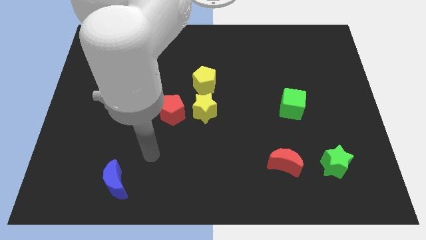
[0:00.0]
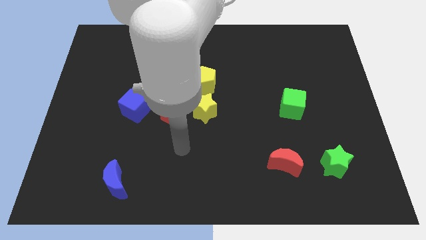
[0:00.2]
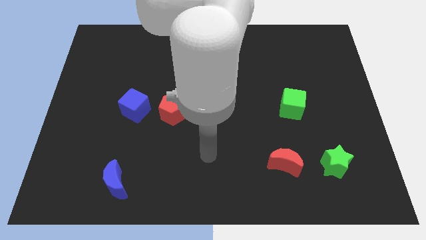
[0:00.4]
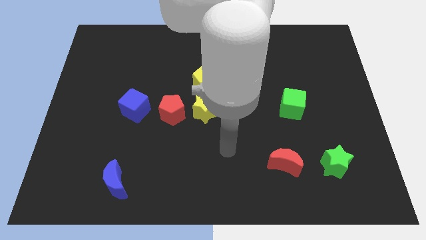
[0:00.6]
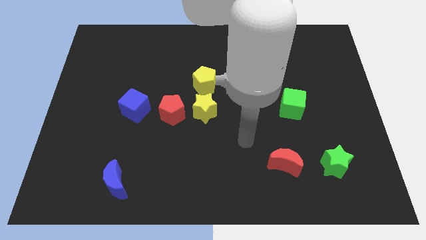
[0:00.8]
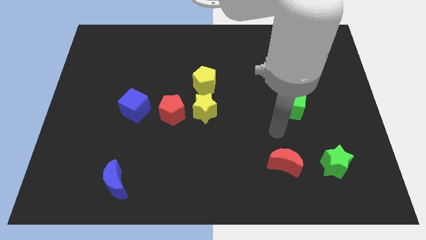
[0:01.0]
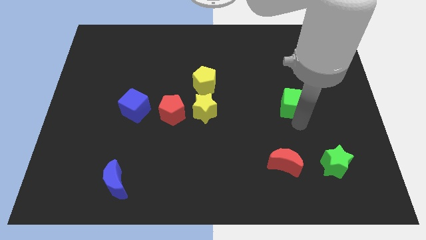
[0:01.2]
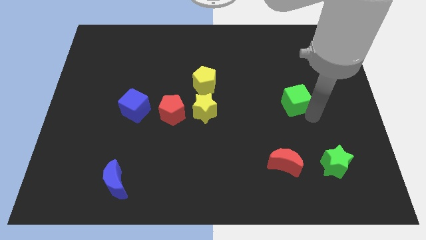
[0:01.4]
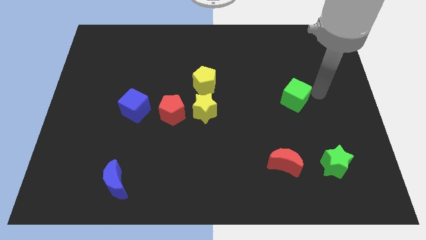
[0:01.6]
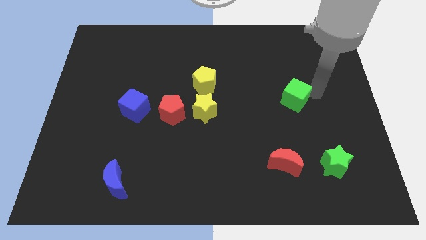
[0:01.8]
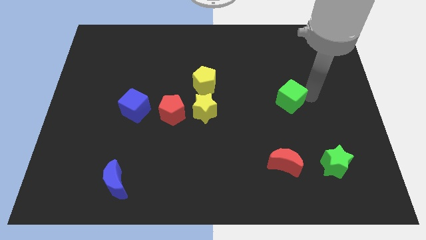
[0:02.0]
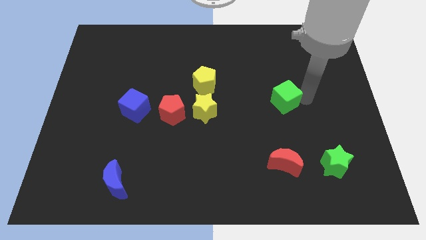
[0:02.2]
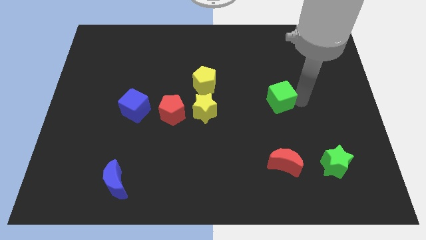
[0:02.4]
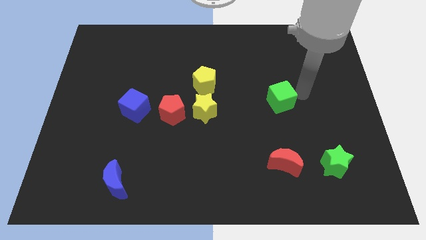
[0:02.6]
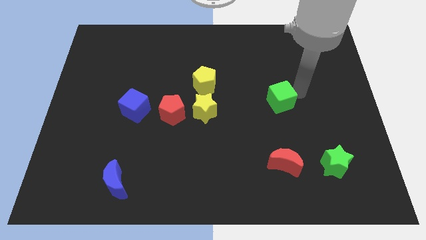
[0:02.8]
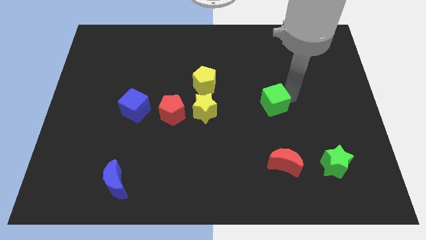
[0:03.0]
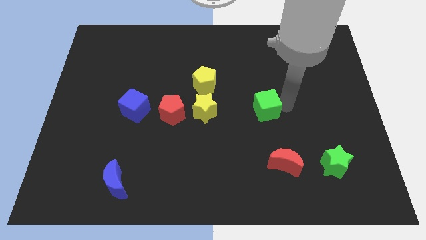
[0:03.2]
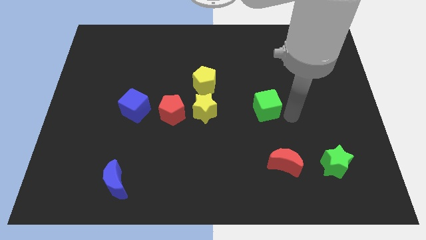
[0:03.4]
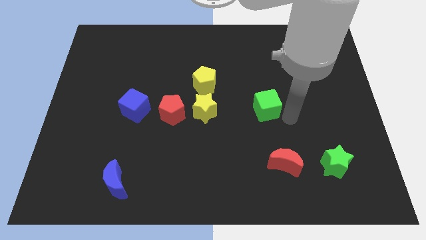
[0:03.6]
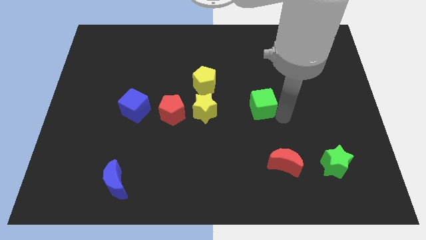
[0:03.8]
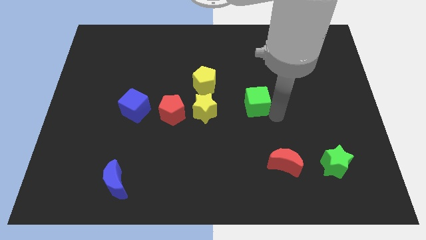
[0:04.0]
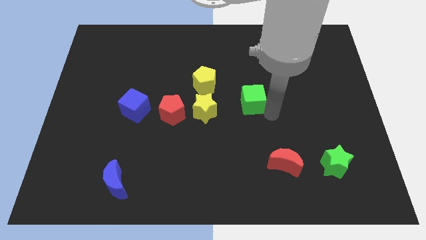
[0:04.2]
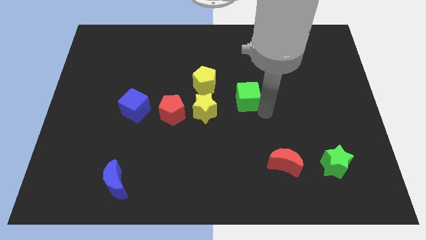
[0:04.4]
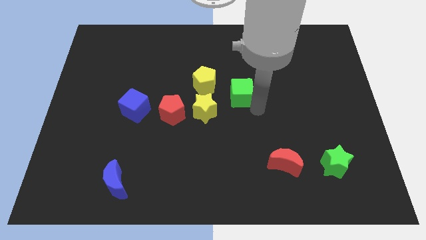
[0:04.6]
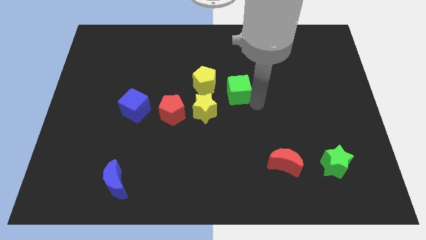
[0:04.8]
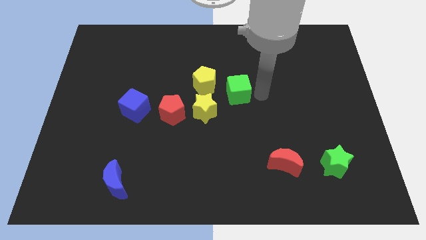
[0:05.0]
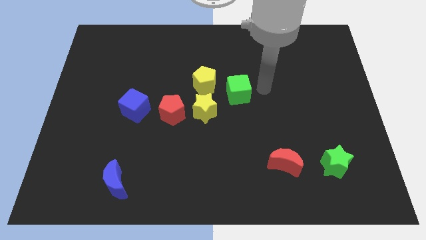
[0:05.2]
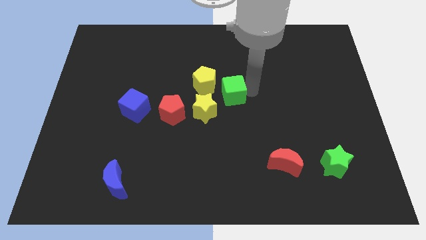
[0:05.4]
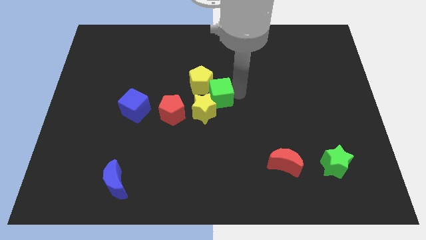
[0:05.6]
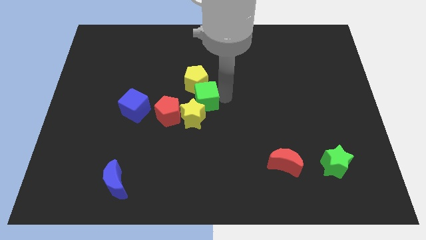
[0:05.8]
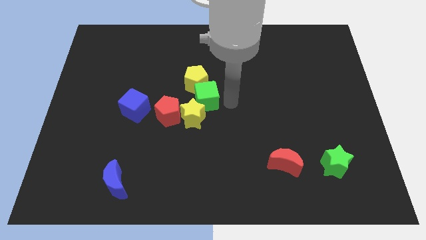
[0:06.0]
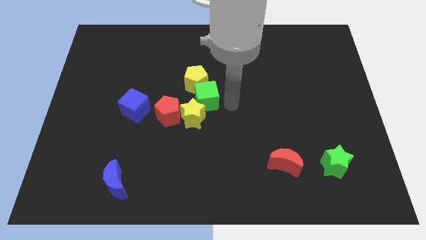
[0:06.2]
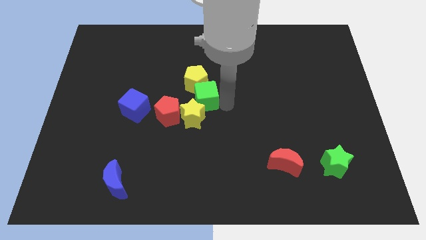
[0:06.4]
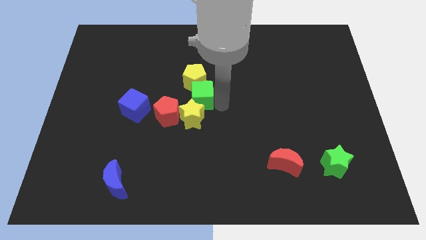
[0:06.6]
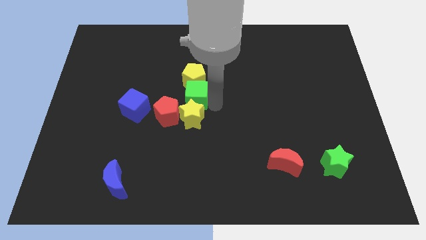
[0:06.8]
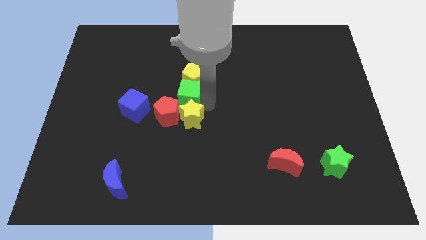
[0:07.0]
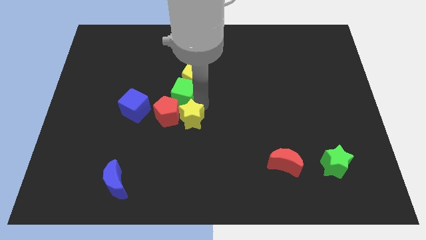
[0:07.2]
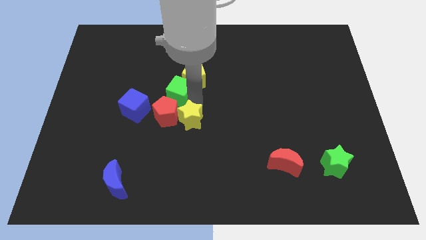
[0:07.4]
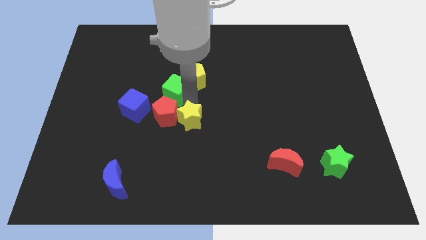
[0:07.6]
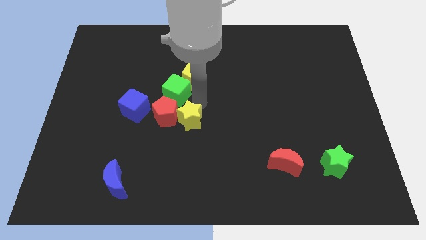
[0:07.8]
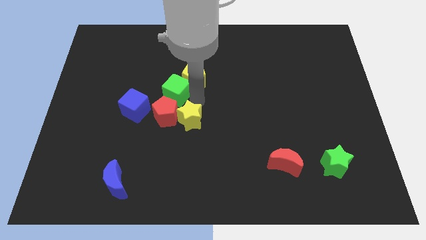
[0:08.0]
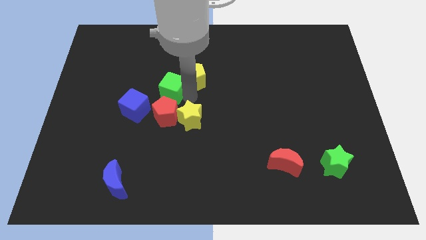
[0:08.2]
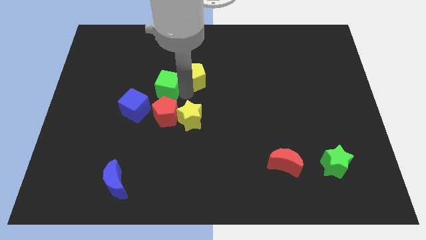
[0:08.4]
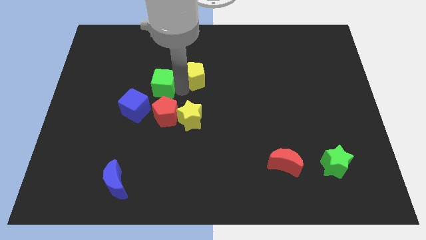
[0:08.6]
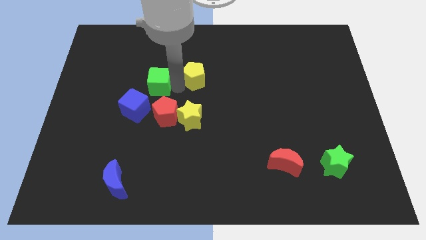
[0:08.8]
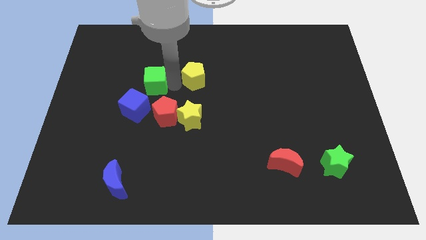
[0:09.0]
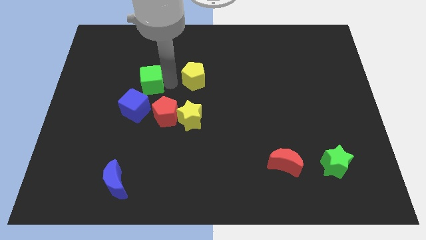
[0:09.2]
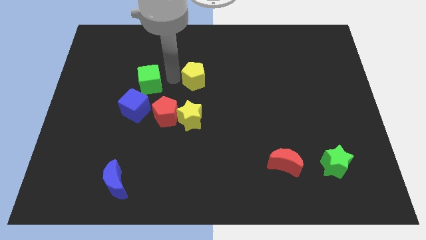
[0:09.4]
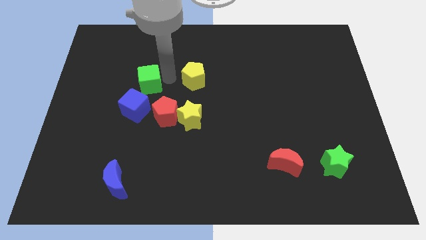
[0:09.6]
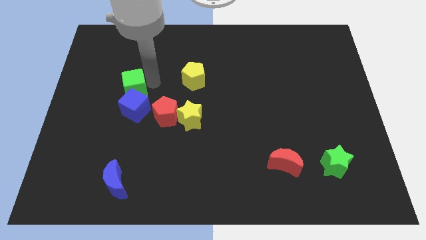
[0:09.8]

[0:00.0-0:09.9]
put the green cube to the top left of the blue cube

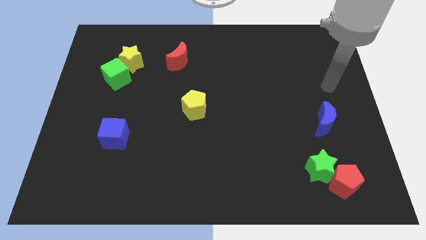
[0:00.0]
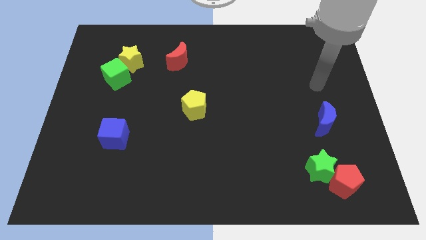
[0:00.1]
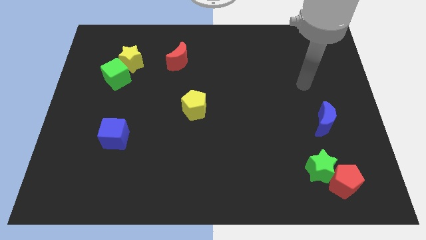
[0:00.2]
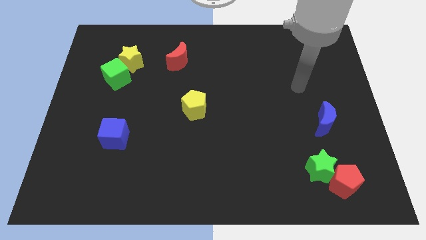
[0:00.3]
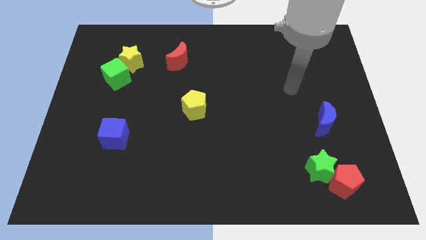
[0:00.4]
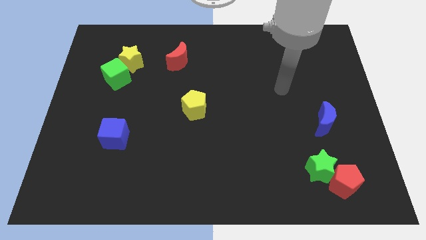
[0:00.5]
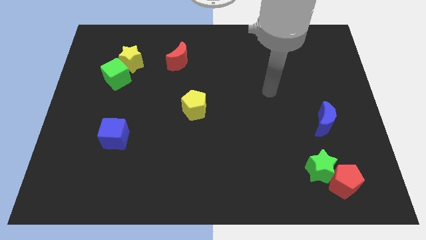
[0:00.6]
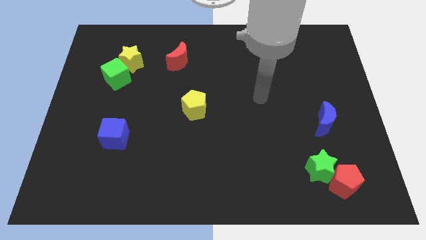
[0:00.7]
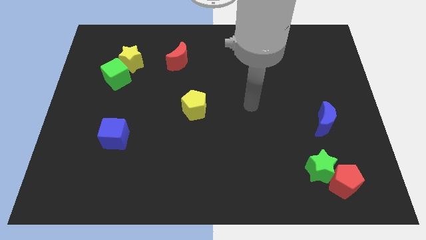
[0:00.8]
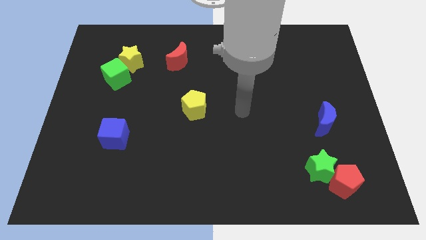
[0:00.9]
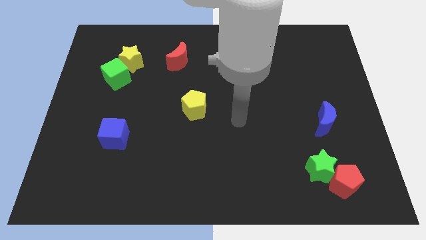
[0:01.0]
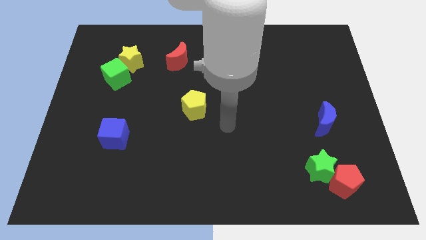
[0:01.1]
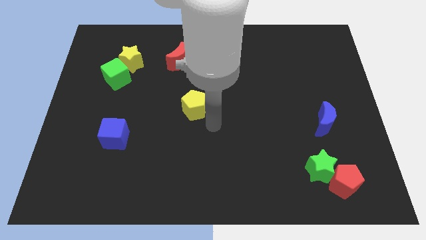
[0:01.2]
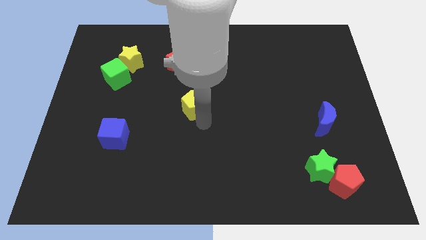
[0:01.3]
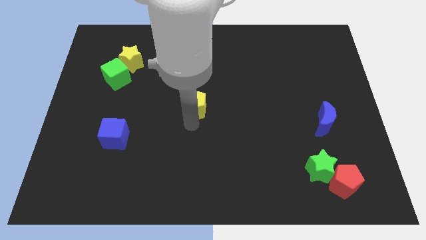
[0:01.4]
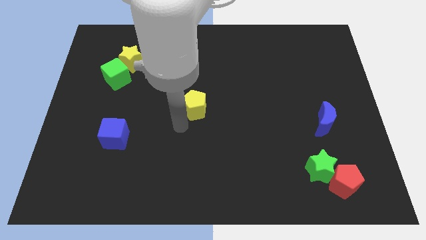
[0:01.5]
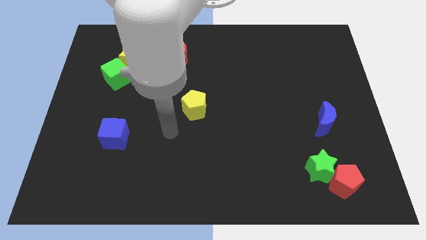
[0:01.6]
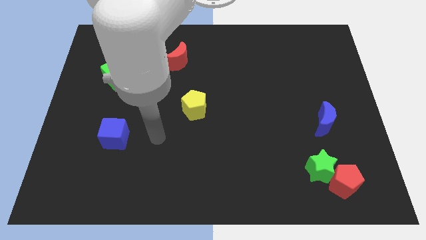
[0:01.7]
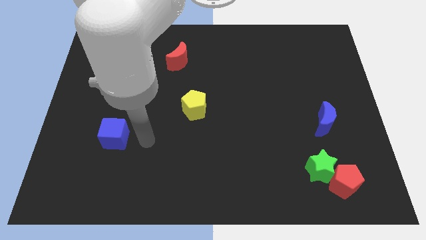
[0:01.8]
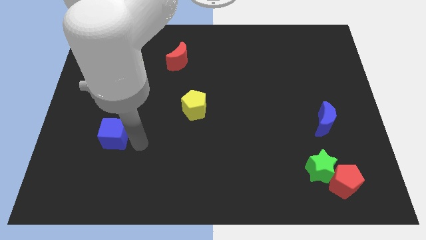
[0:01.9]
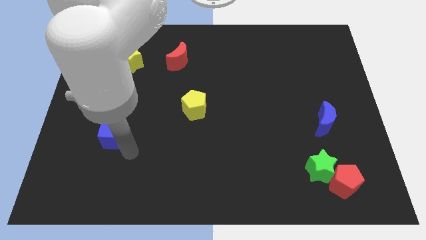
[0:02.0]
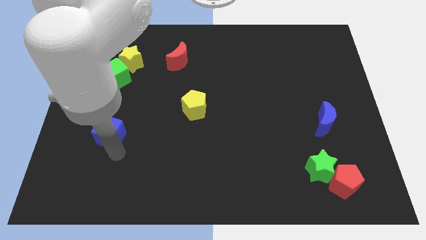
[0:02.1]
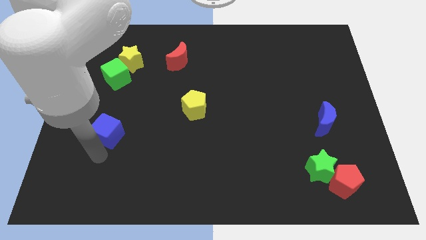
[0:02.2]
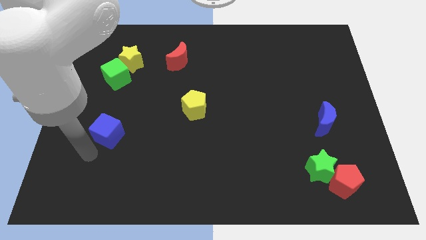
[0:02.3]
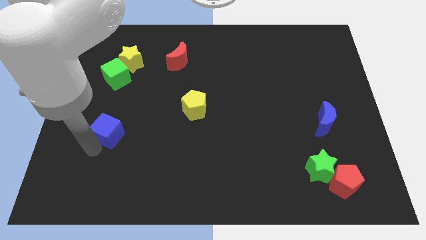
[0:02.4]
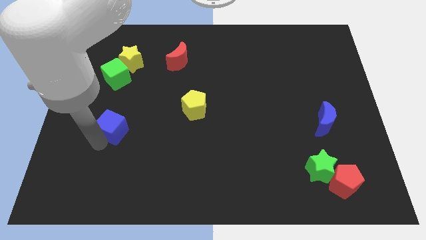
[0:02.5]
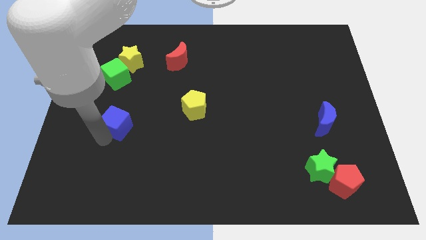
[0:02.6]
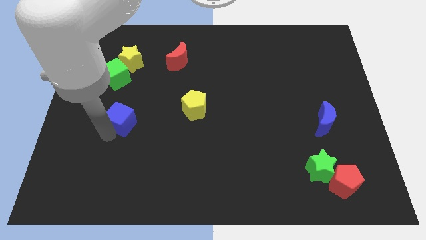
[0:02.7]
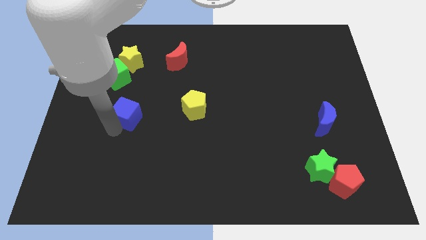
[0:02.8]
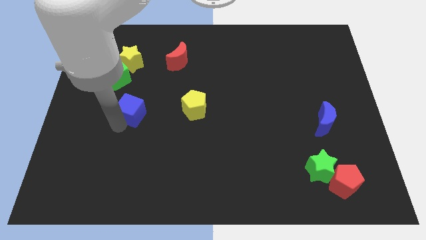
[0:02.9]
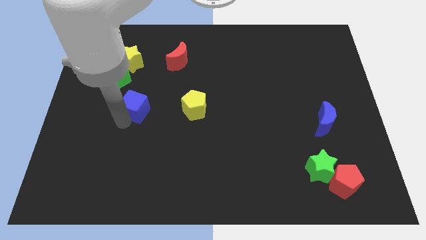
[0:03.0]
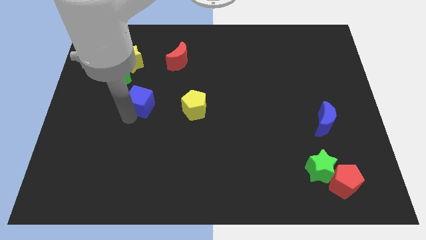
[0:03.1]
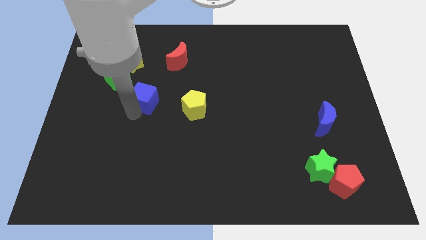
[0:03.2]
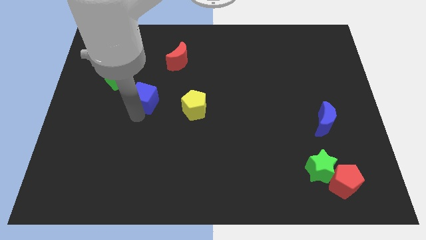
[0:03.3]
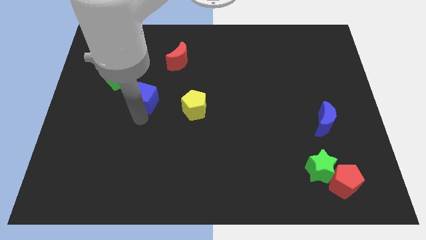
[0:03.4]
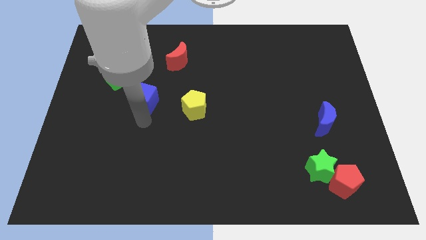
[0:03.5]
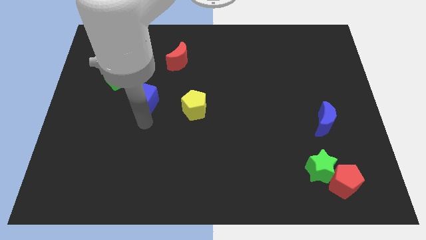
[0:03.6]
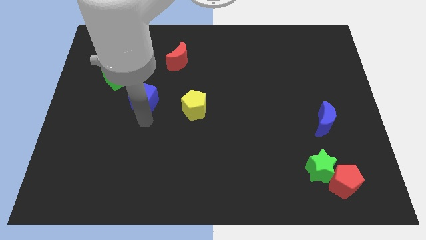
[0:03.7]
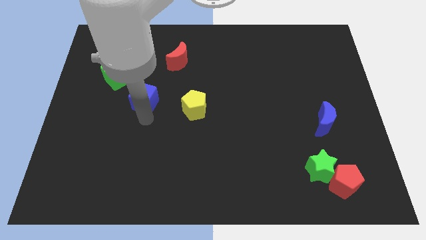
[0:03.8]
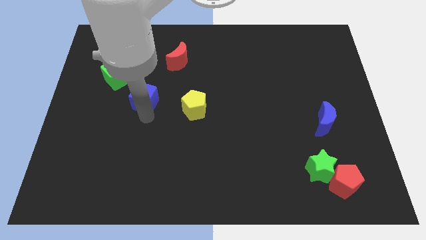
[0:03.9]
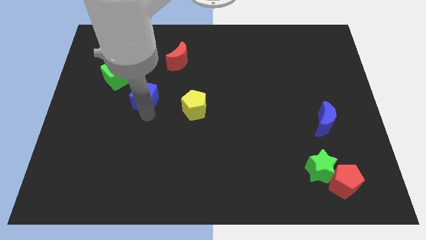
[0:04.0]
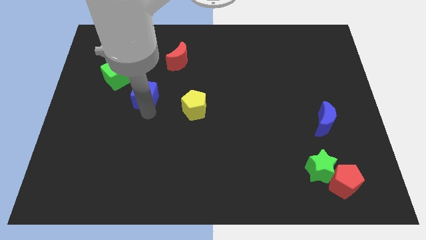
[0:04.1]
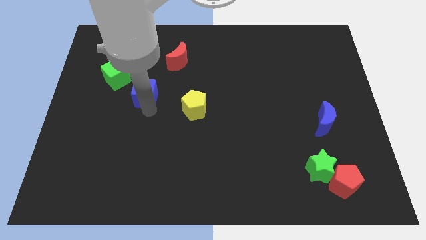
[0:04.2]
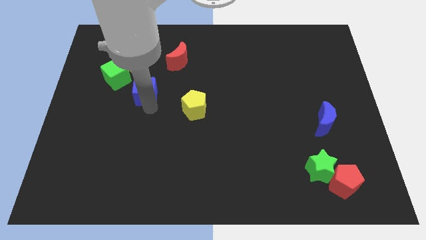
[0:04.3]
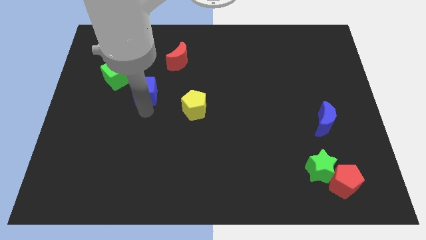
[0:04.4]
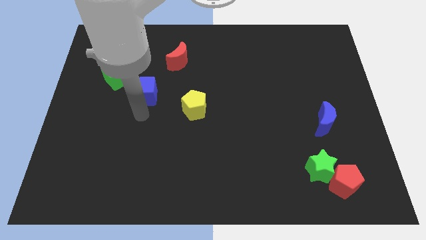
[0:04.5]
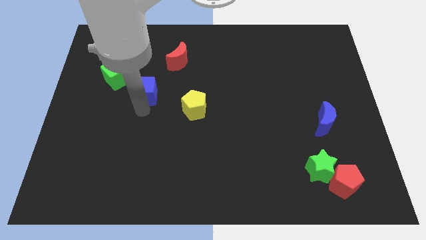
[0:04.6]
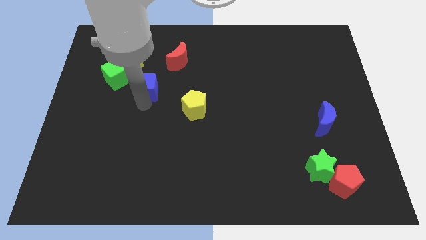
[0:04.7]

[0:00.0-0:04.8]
move the blue cube to the bottom right of the yellow star
